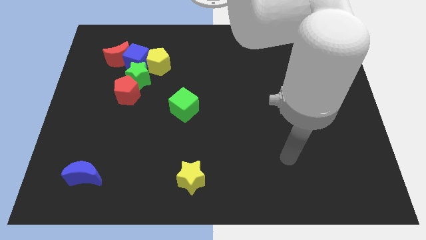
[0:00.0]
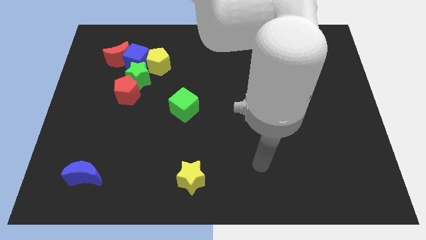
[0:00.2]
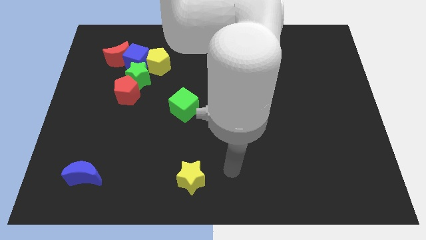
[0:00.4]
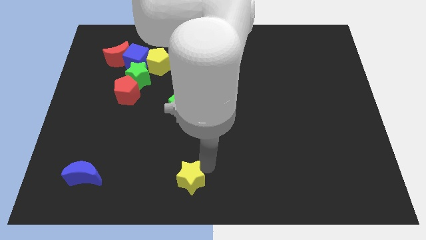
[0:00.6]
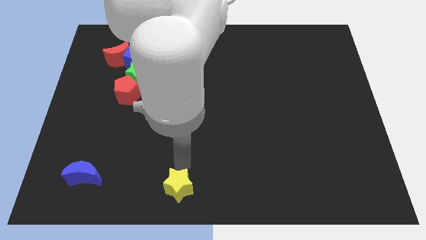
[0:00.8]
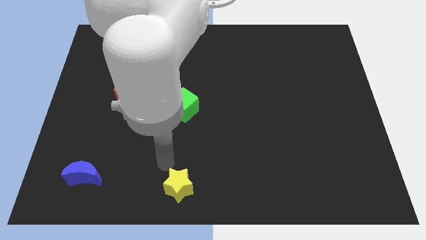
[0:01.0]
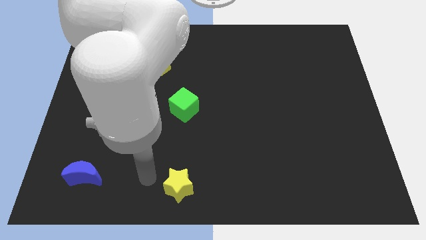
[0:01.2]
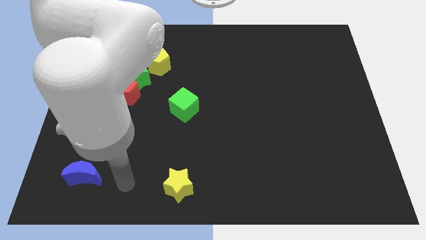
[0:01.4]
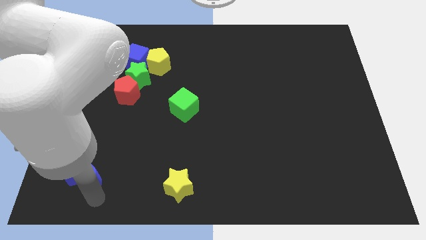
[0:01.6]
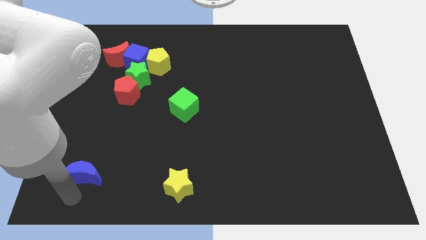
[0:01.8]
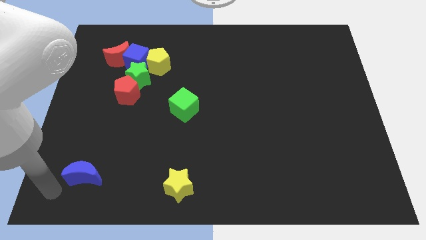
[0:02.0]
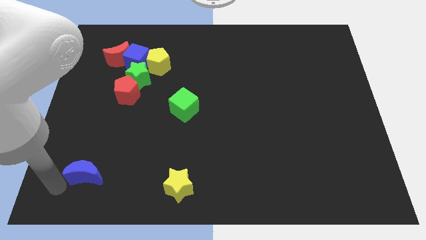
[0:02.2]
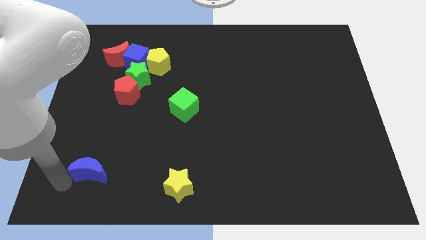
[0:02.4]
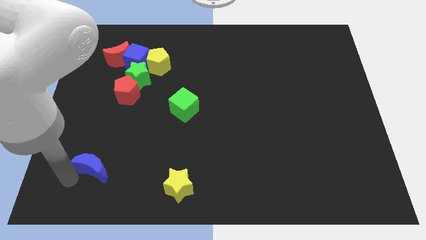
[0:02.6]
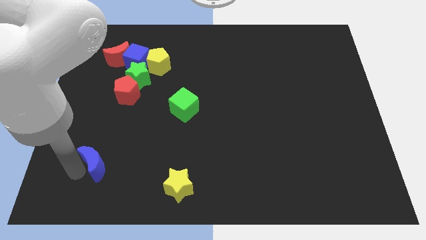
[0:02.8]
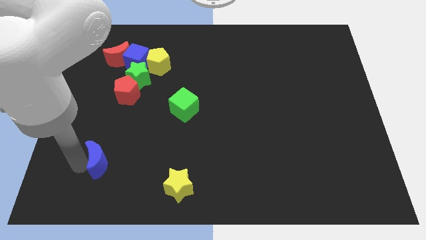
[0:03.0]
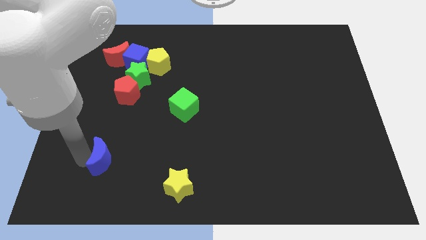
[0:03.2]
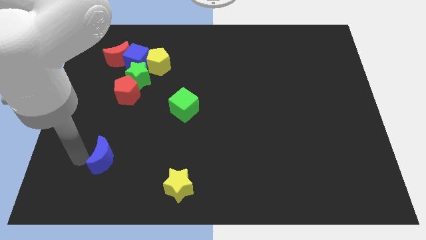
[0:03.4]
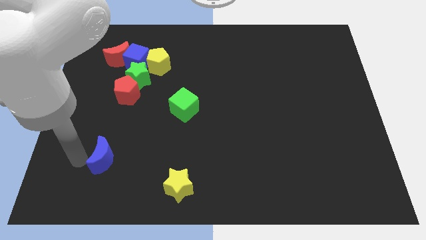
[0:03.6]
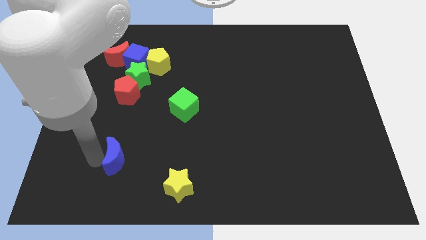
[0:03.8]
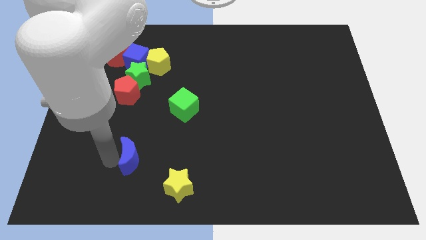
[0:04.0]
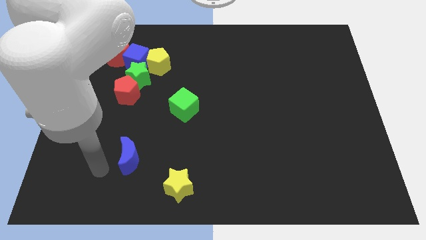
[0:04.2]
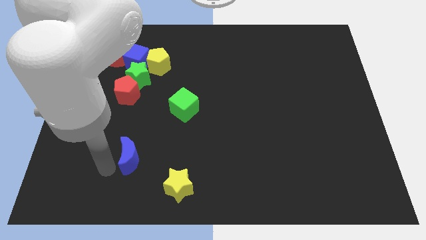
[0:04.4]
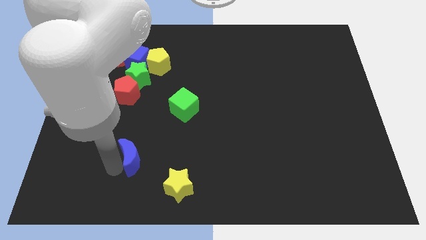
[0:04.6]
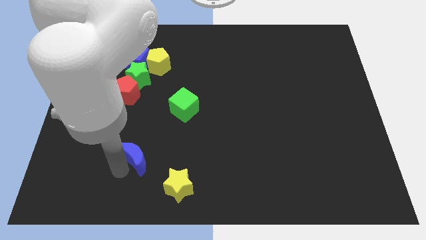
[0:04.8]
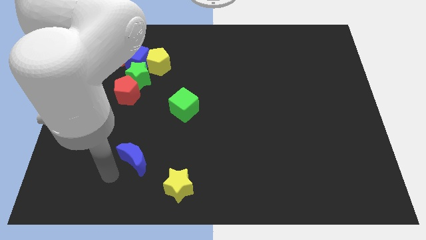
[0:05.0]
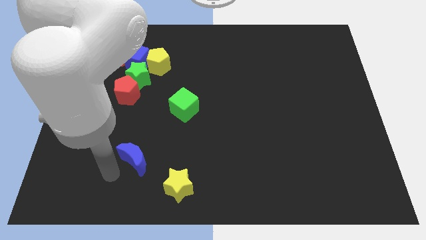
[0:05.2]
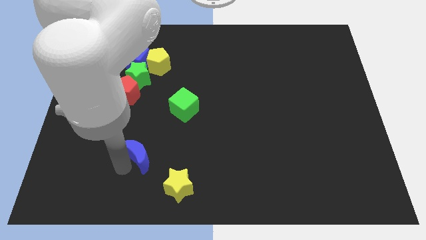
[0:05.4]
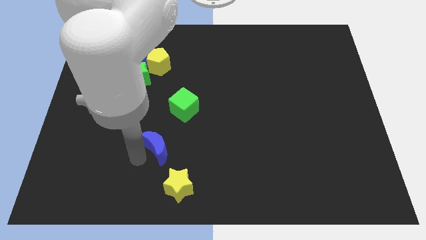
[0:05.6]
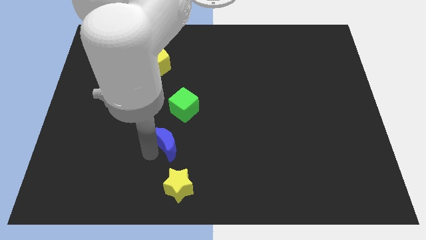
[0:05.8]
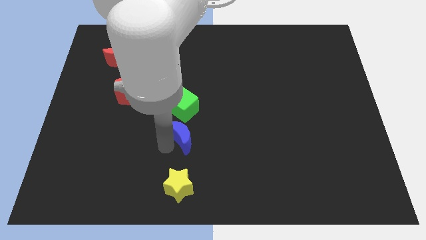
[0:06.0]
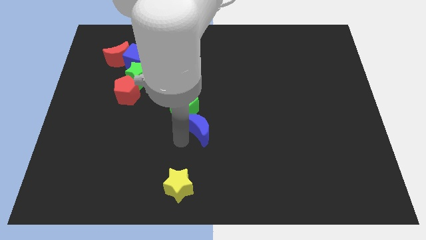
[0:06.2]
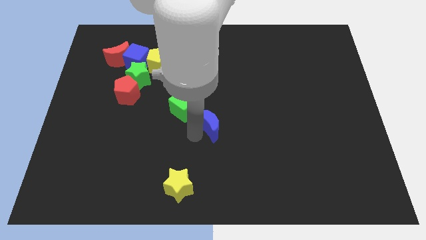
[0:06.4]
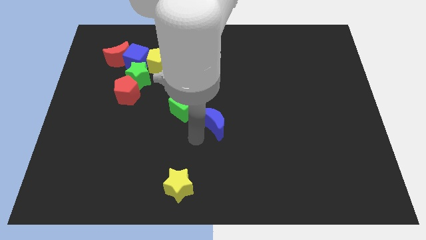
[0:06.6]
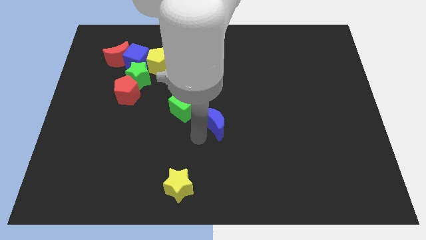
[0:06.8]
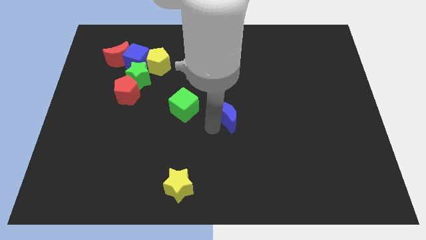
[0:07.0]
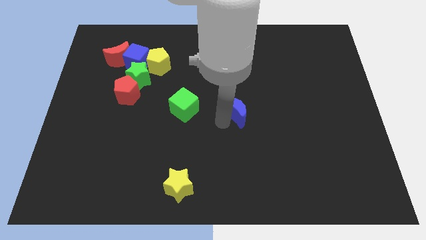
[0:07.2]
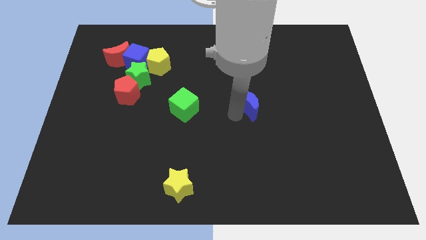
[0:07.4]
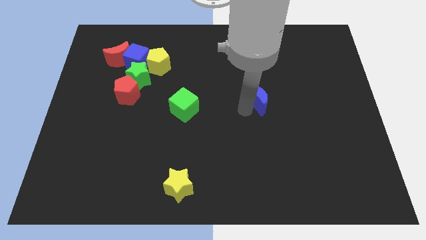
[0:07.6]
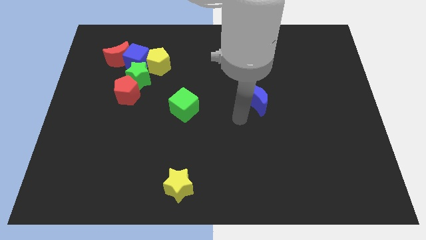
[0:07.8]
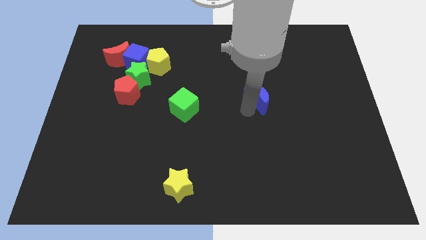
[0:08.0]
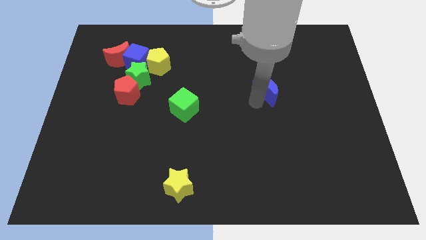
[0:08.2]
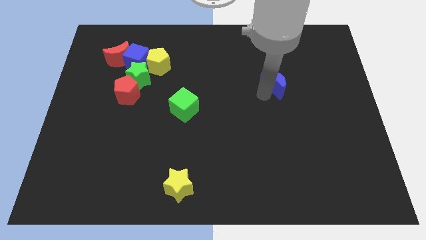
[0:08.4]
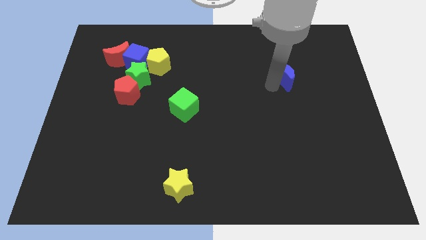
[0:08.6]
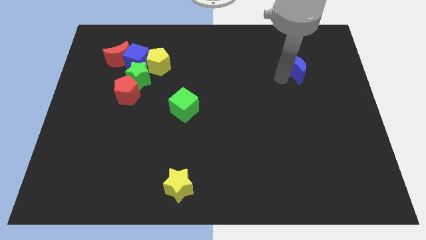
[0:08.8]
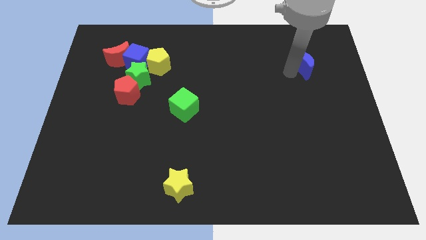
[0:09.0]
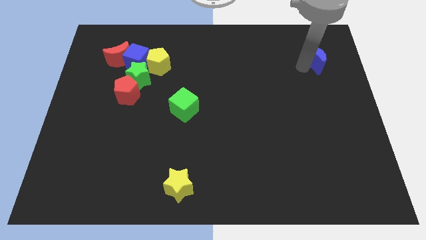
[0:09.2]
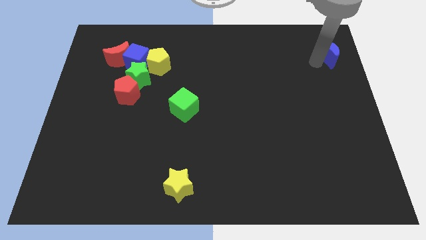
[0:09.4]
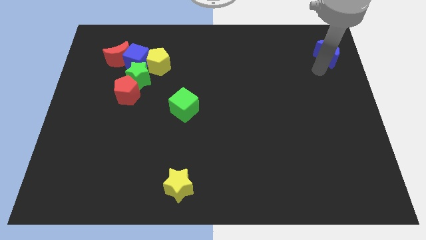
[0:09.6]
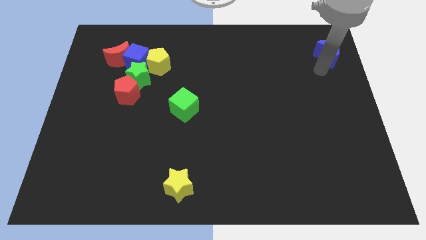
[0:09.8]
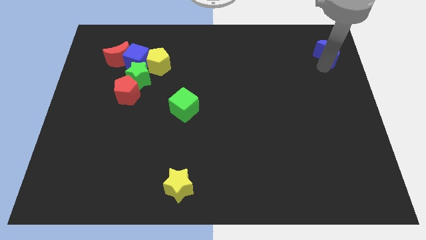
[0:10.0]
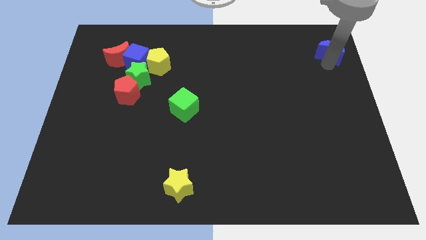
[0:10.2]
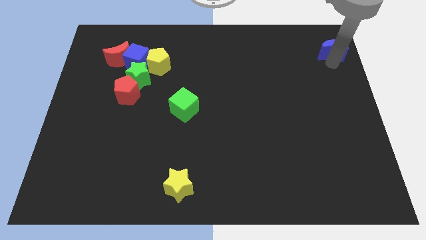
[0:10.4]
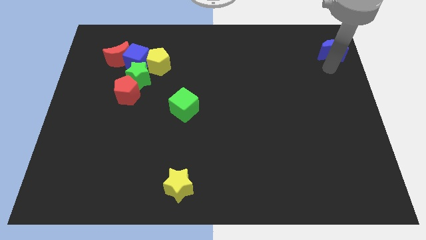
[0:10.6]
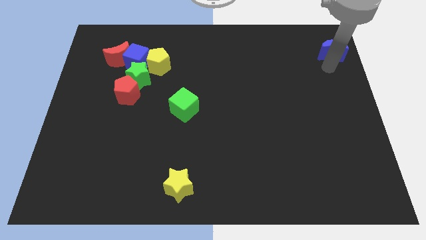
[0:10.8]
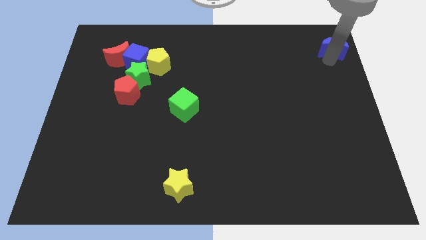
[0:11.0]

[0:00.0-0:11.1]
put the blue moon to the top right

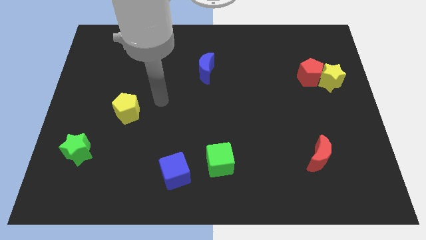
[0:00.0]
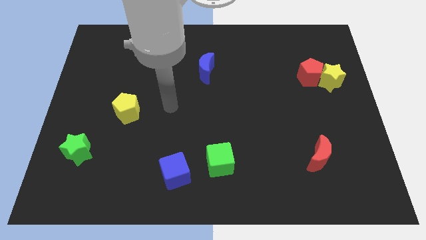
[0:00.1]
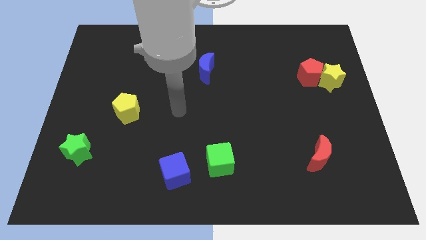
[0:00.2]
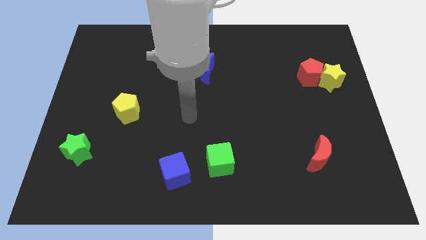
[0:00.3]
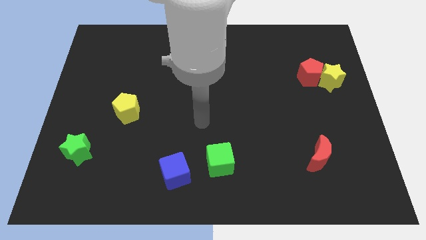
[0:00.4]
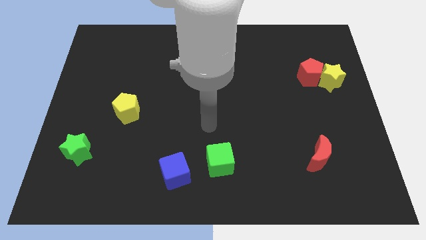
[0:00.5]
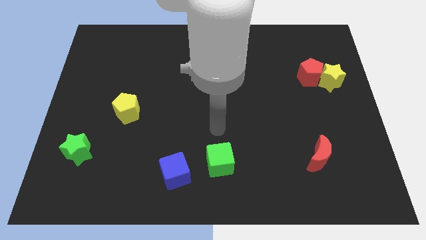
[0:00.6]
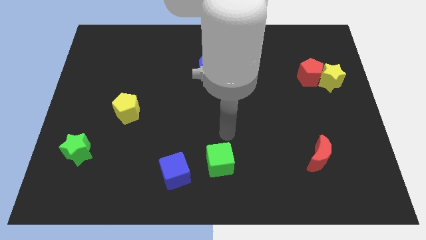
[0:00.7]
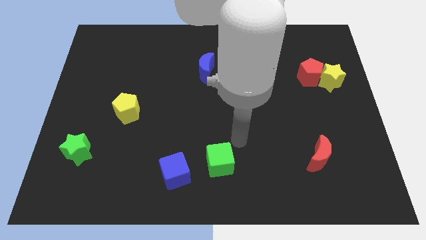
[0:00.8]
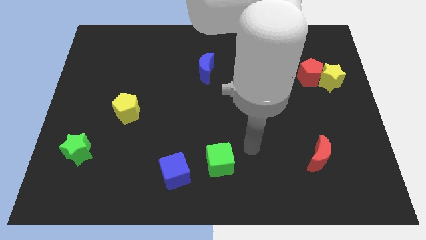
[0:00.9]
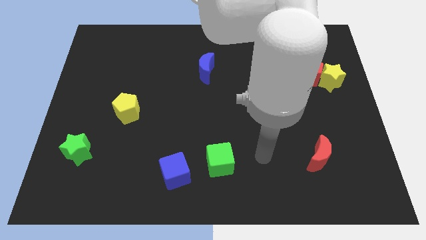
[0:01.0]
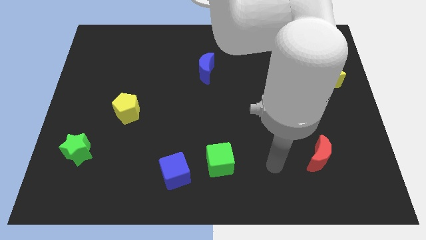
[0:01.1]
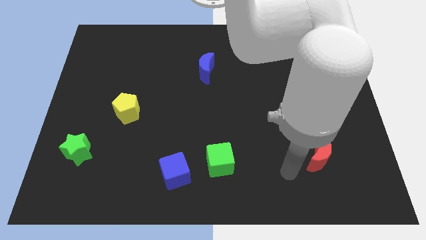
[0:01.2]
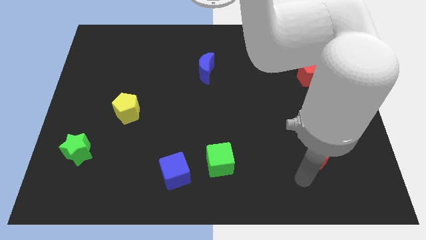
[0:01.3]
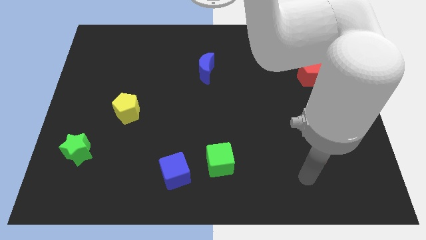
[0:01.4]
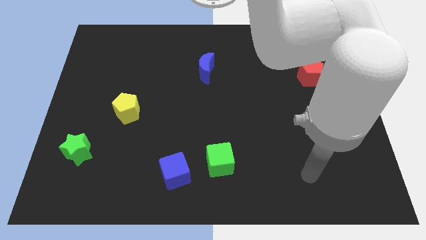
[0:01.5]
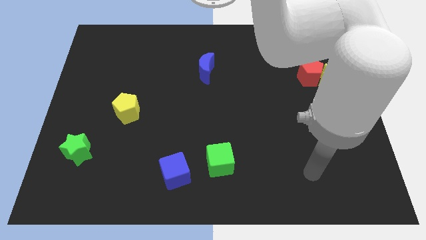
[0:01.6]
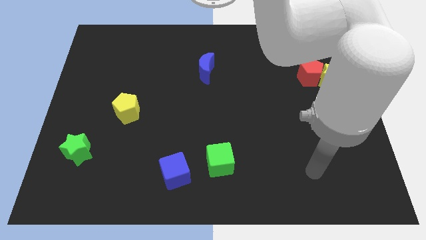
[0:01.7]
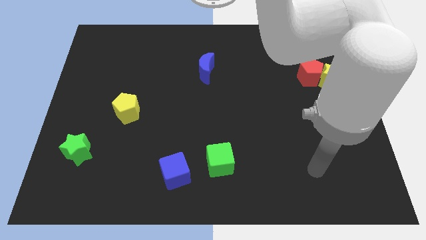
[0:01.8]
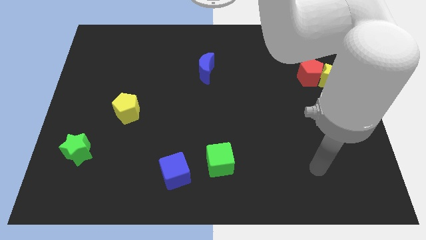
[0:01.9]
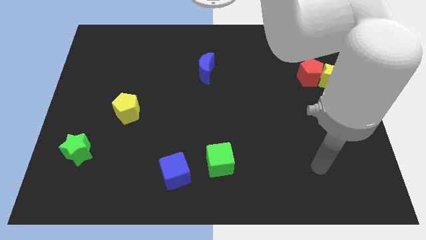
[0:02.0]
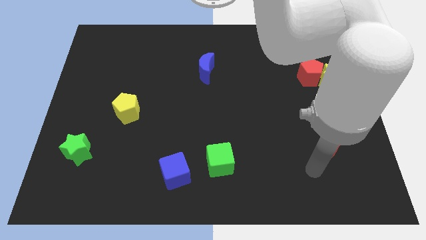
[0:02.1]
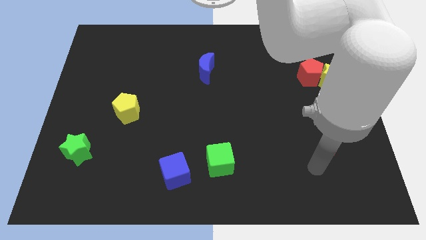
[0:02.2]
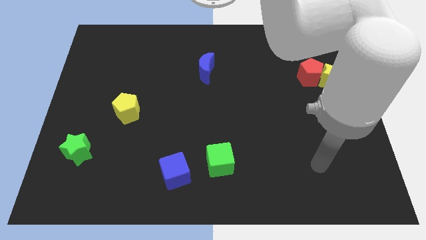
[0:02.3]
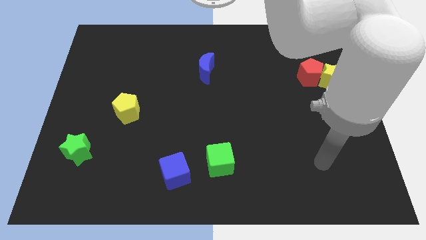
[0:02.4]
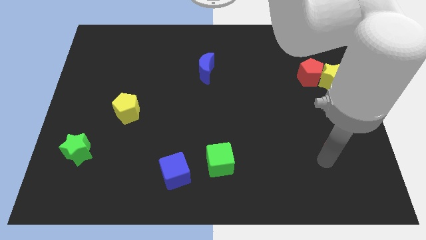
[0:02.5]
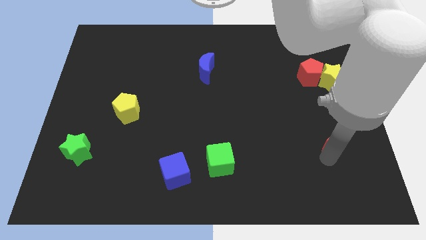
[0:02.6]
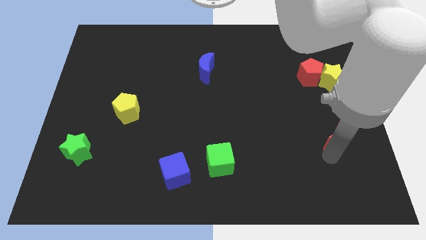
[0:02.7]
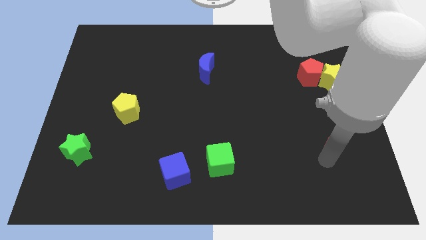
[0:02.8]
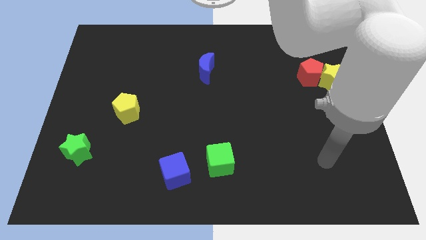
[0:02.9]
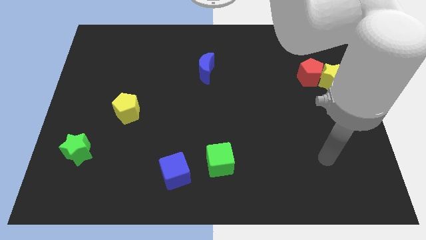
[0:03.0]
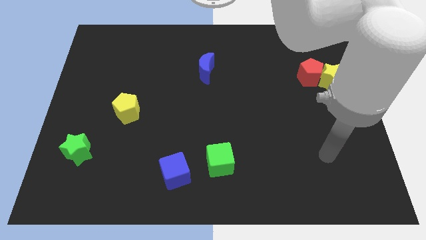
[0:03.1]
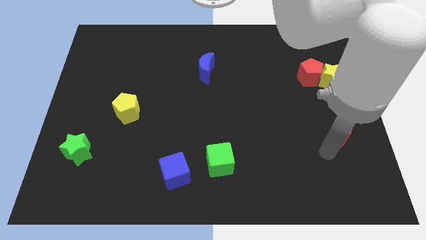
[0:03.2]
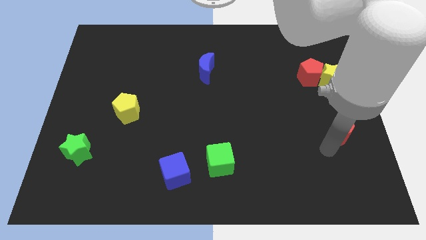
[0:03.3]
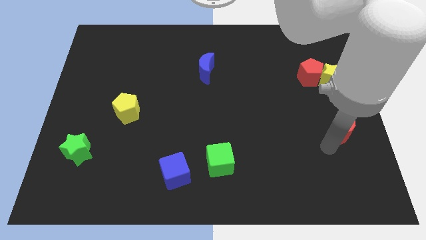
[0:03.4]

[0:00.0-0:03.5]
move the red moon to the center right
